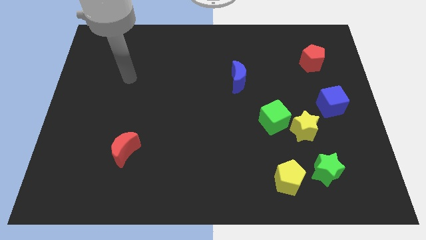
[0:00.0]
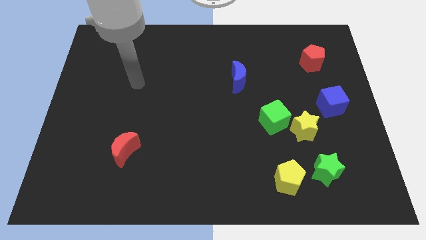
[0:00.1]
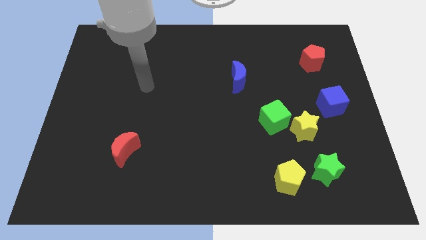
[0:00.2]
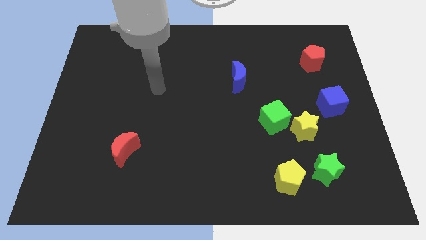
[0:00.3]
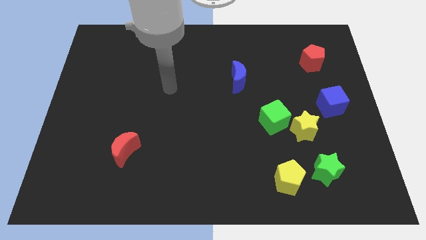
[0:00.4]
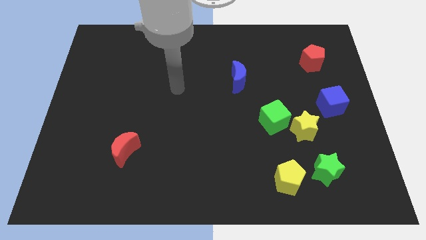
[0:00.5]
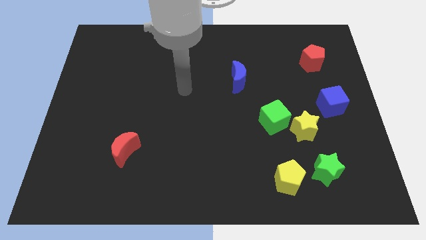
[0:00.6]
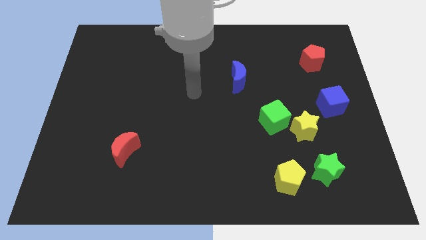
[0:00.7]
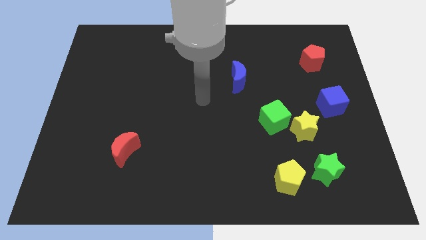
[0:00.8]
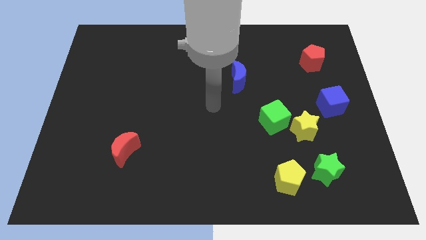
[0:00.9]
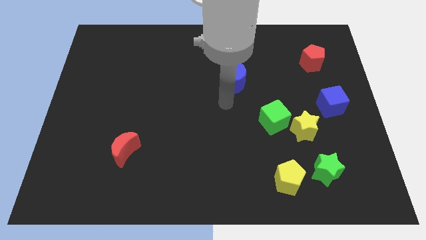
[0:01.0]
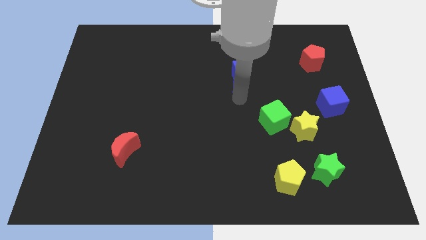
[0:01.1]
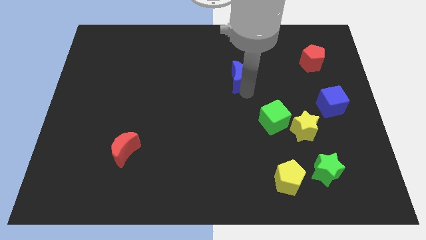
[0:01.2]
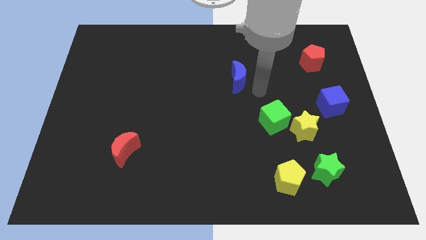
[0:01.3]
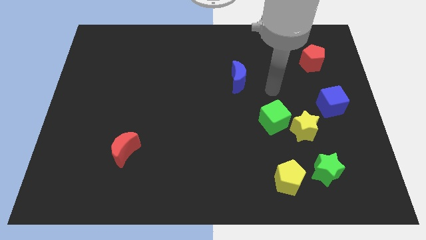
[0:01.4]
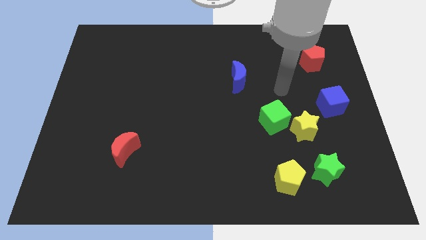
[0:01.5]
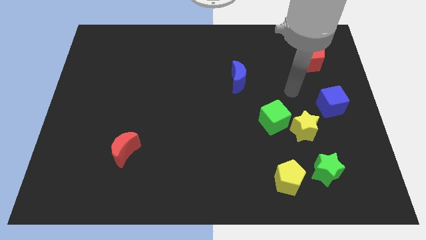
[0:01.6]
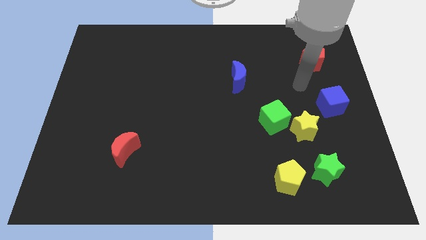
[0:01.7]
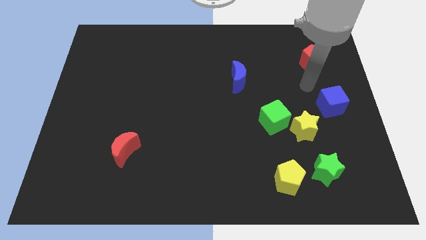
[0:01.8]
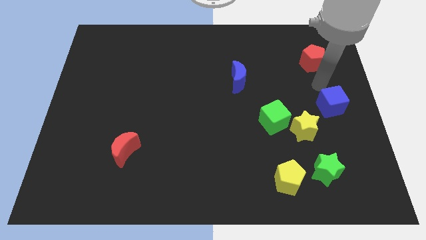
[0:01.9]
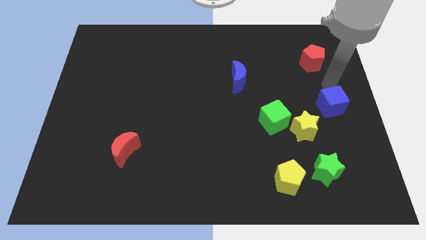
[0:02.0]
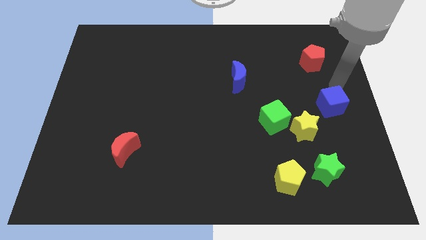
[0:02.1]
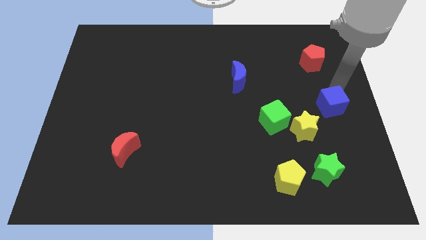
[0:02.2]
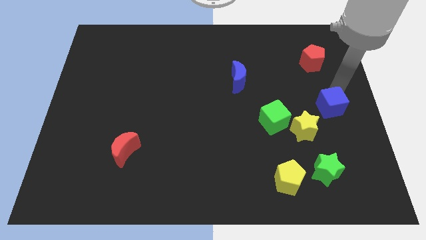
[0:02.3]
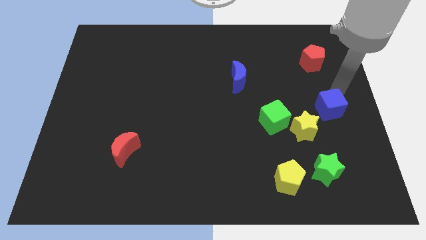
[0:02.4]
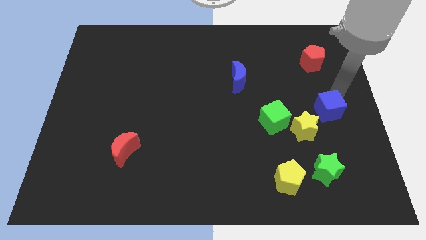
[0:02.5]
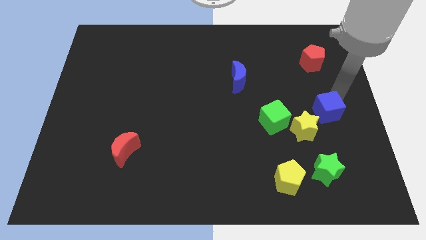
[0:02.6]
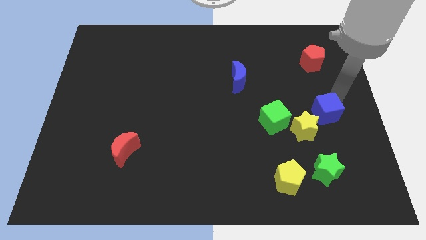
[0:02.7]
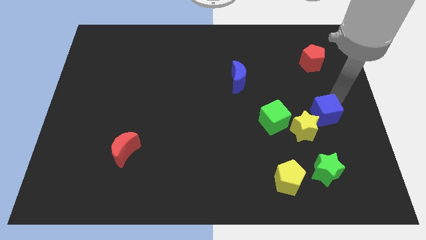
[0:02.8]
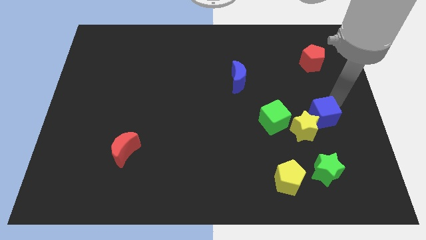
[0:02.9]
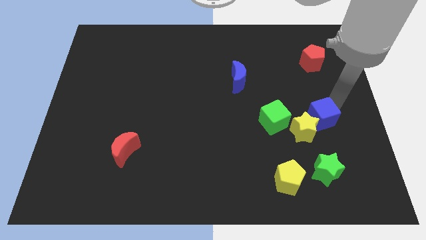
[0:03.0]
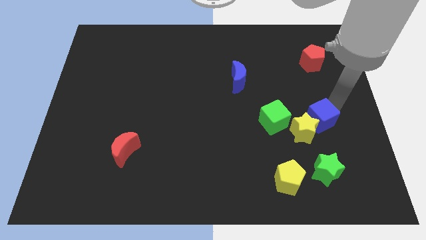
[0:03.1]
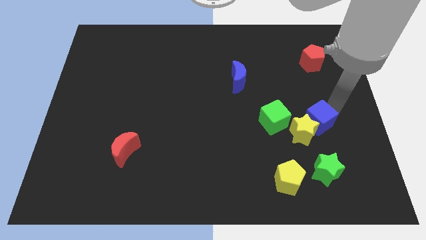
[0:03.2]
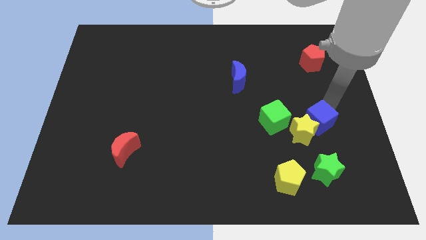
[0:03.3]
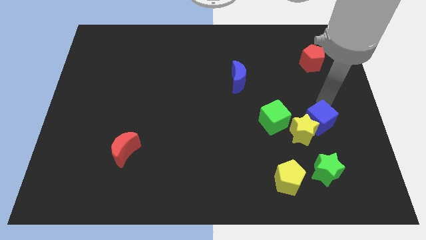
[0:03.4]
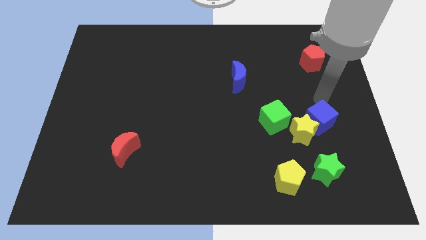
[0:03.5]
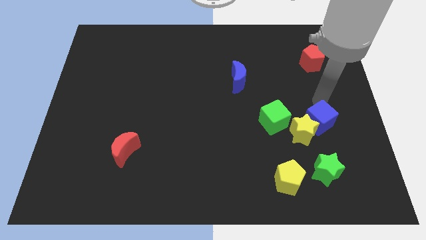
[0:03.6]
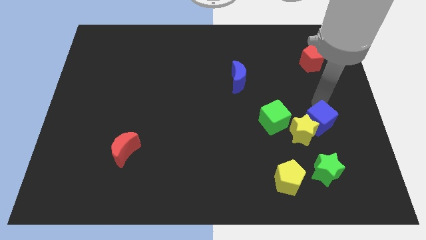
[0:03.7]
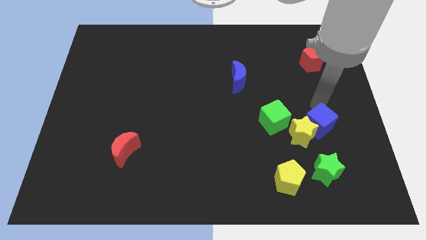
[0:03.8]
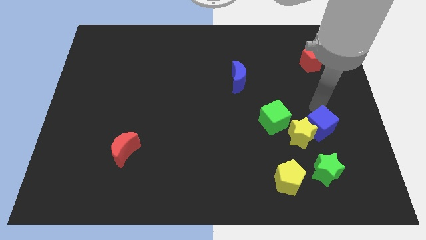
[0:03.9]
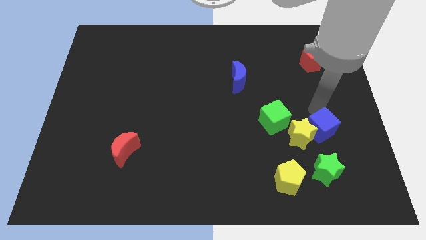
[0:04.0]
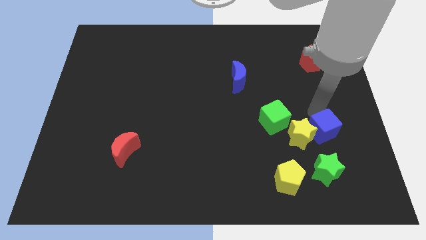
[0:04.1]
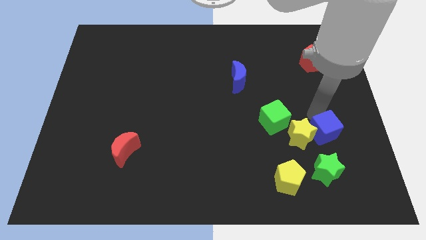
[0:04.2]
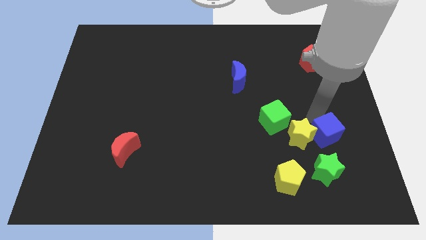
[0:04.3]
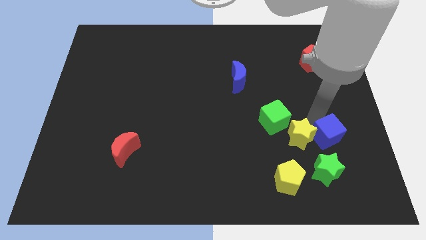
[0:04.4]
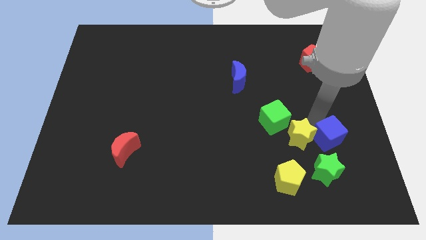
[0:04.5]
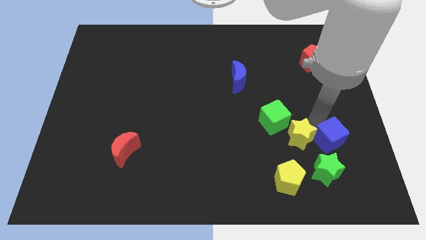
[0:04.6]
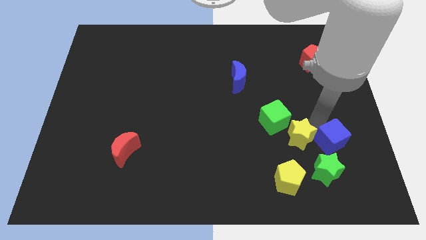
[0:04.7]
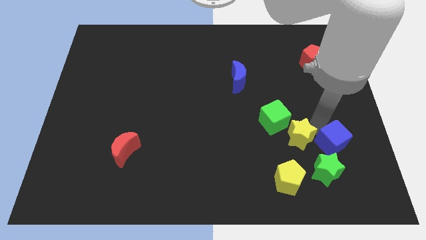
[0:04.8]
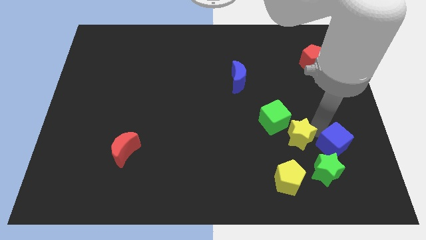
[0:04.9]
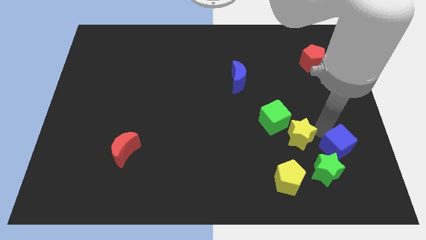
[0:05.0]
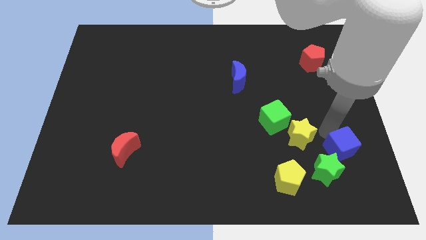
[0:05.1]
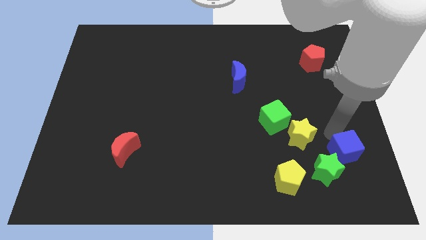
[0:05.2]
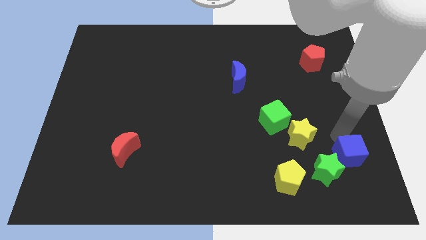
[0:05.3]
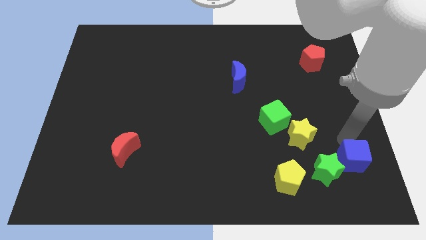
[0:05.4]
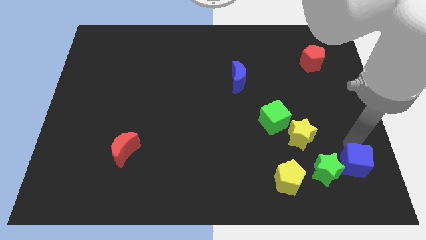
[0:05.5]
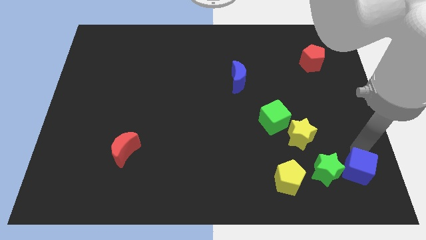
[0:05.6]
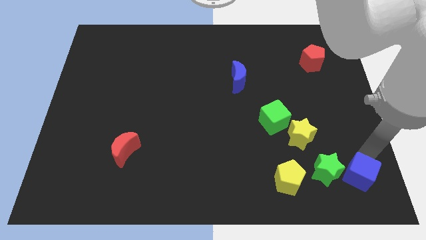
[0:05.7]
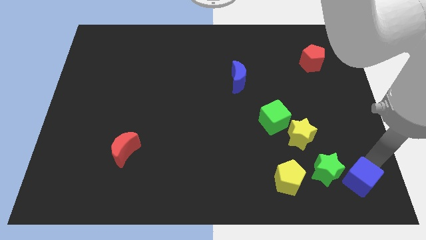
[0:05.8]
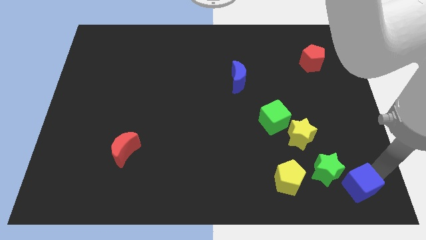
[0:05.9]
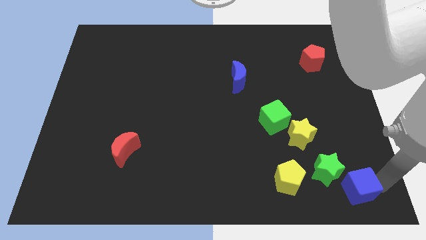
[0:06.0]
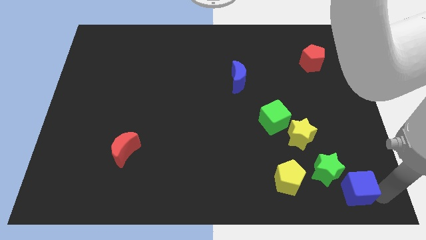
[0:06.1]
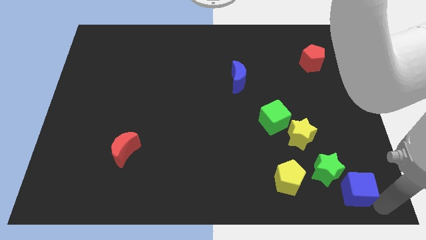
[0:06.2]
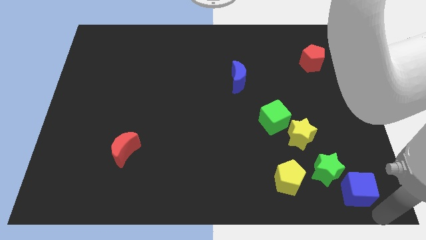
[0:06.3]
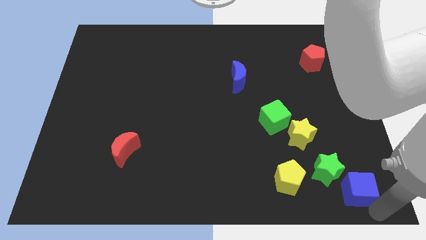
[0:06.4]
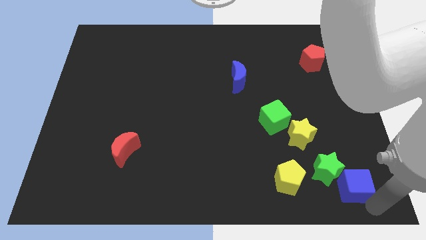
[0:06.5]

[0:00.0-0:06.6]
push the blue cube next to the green star
